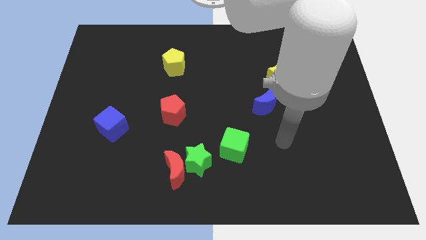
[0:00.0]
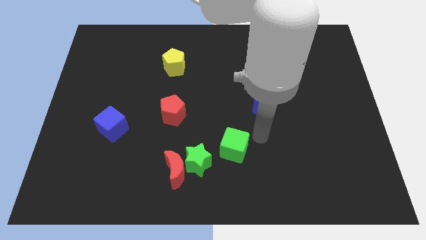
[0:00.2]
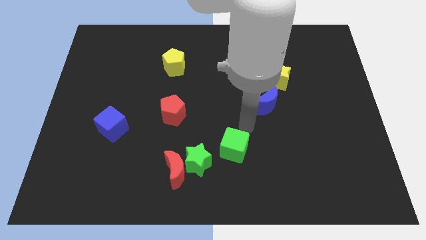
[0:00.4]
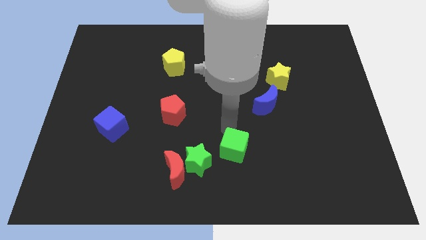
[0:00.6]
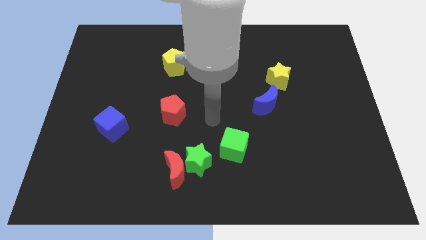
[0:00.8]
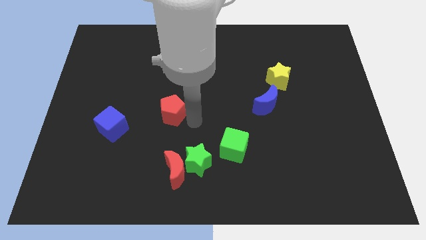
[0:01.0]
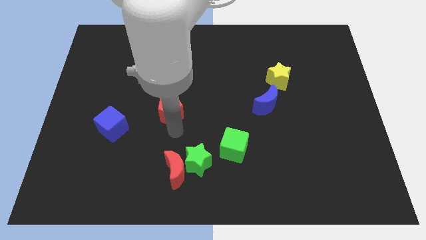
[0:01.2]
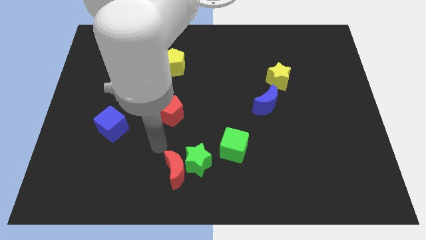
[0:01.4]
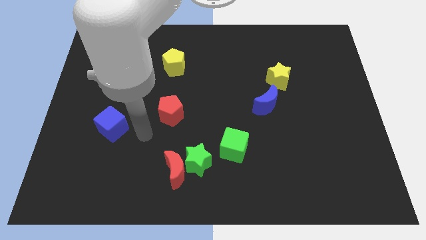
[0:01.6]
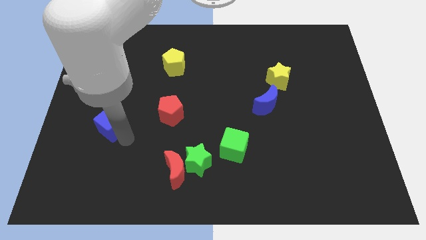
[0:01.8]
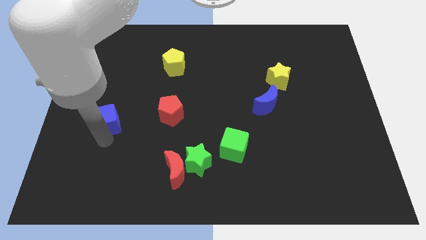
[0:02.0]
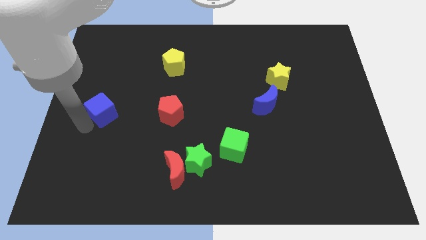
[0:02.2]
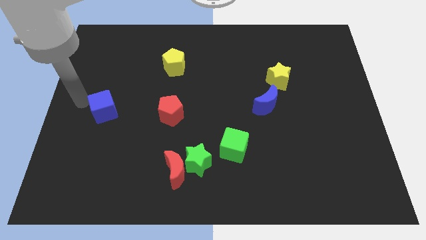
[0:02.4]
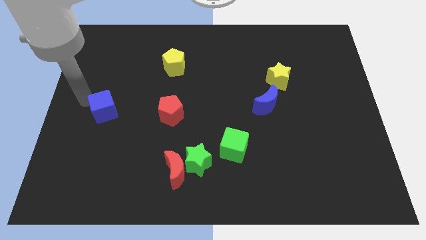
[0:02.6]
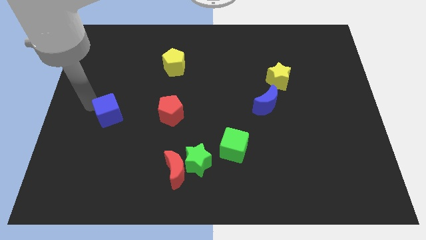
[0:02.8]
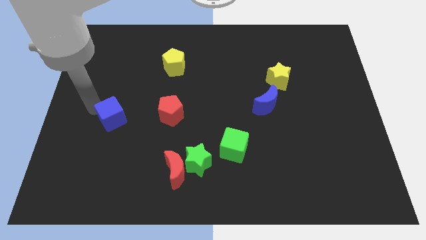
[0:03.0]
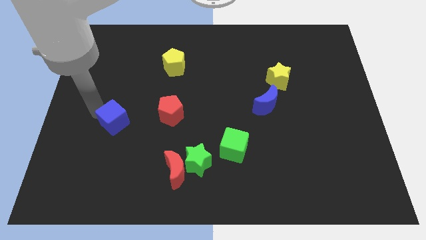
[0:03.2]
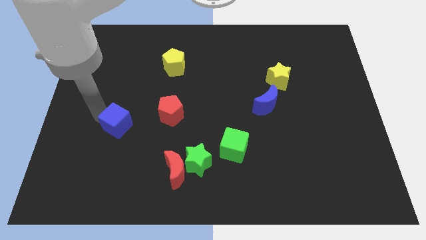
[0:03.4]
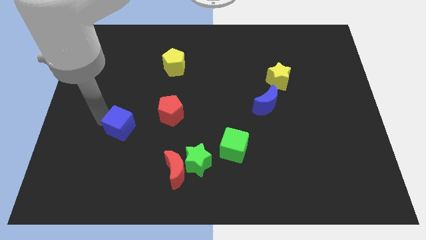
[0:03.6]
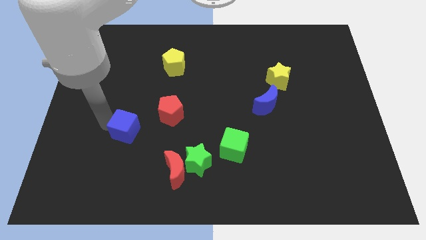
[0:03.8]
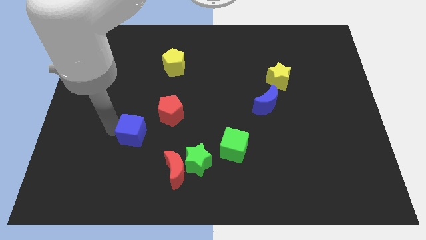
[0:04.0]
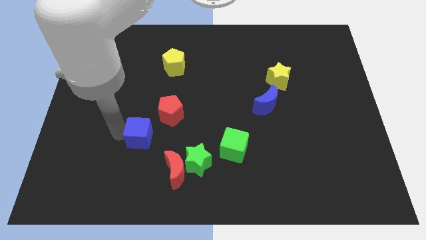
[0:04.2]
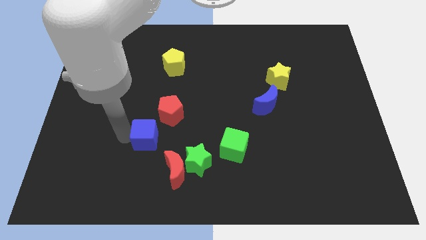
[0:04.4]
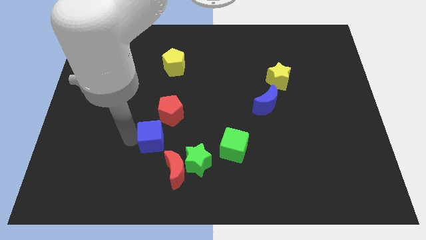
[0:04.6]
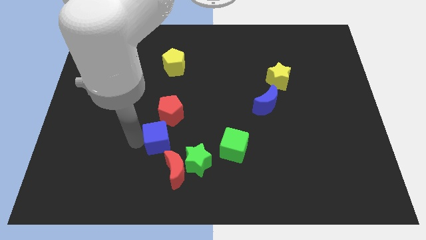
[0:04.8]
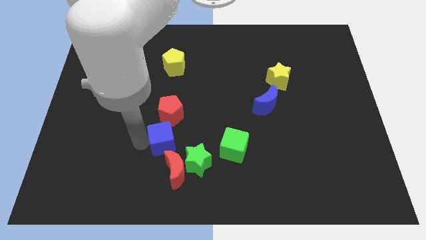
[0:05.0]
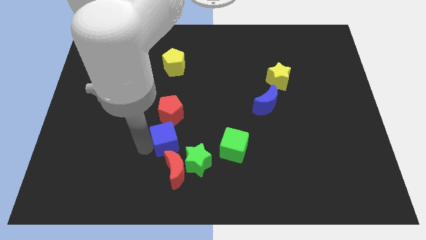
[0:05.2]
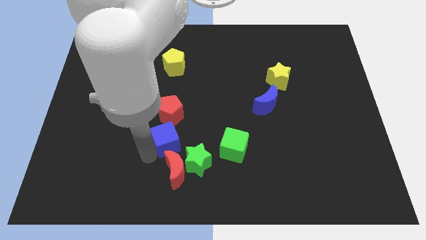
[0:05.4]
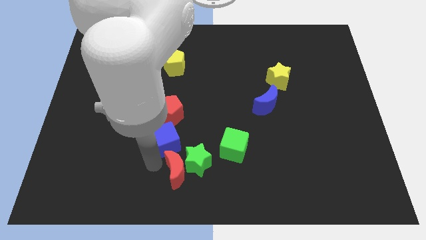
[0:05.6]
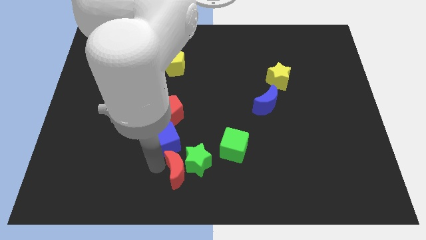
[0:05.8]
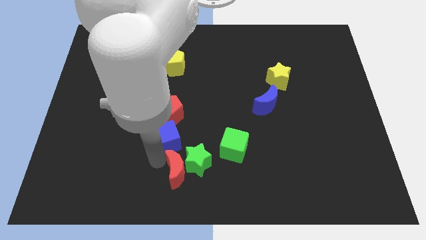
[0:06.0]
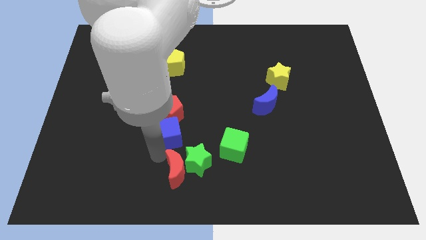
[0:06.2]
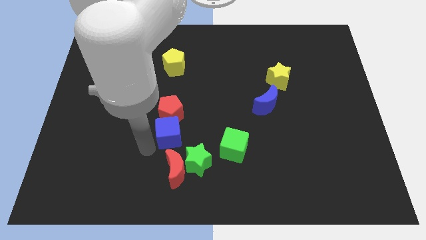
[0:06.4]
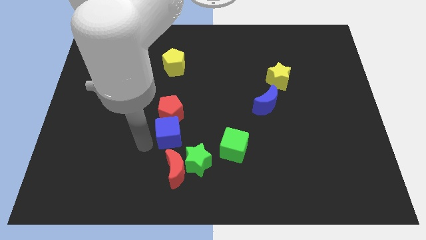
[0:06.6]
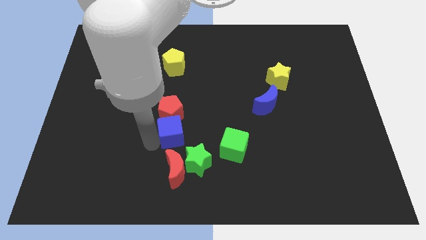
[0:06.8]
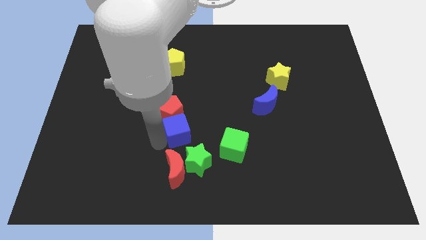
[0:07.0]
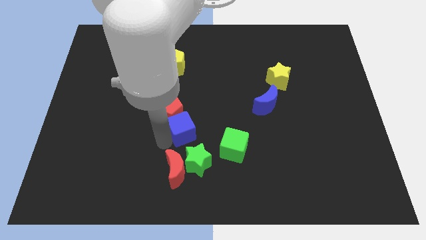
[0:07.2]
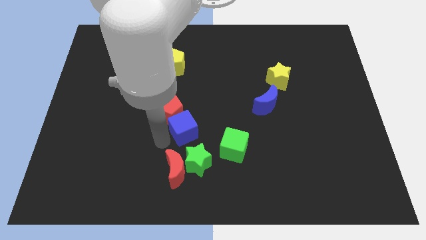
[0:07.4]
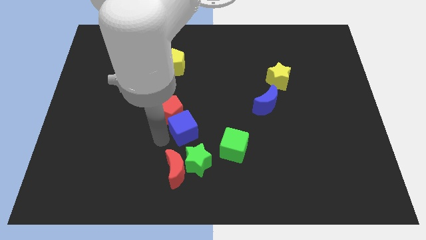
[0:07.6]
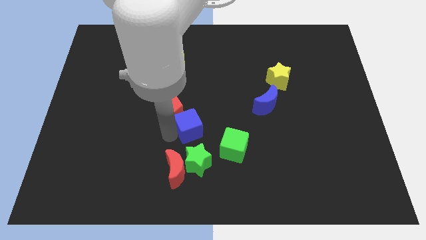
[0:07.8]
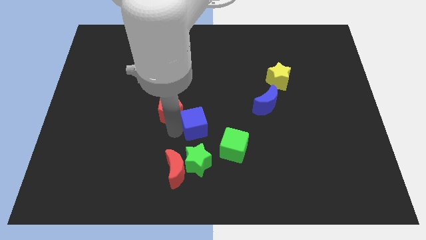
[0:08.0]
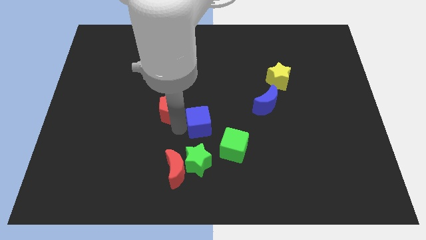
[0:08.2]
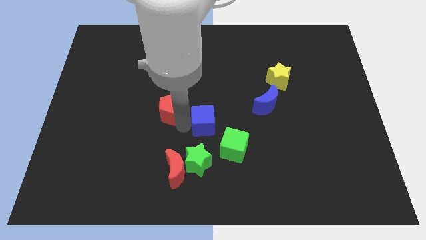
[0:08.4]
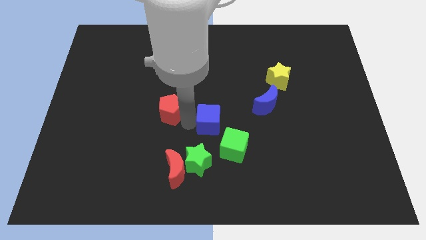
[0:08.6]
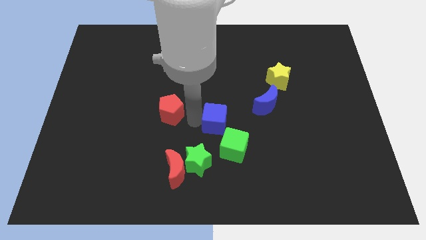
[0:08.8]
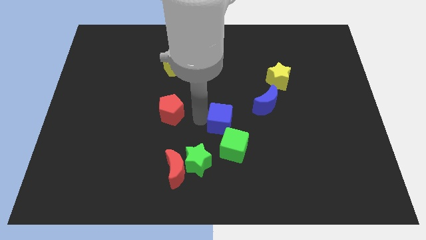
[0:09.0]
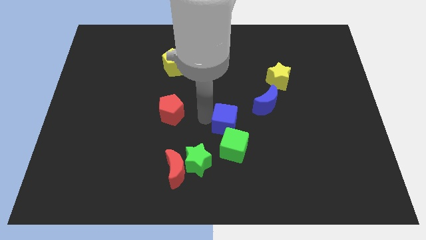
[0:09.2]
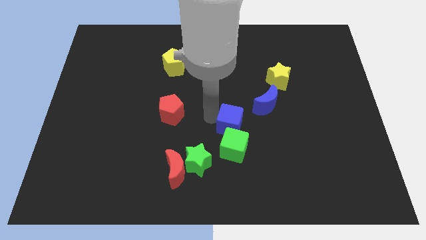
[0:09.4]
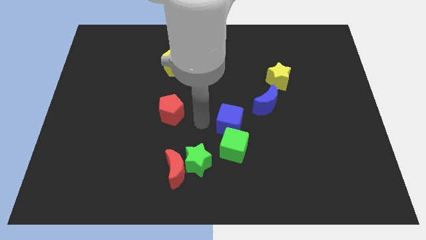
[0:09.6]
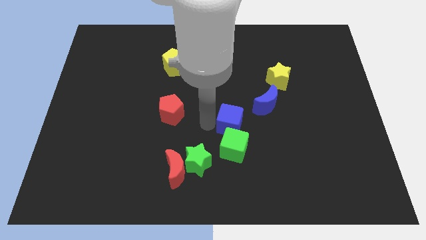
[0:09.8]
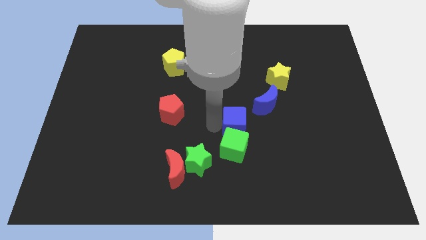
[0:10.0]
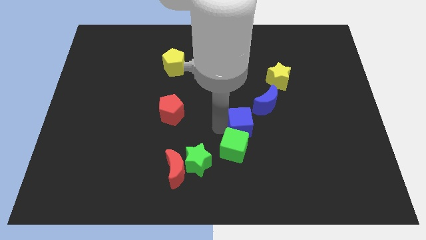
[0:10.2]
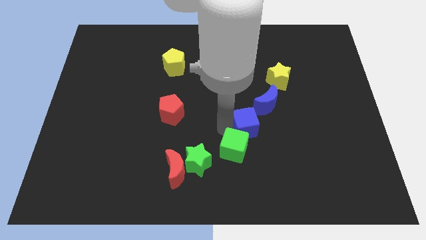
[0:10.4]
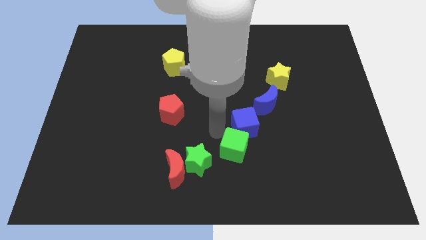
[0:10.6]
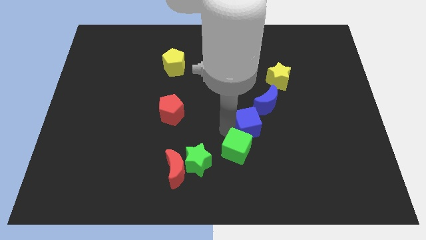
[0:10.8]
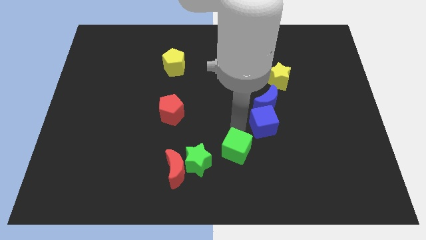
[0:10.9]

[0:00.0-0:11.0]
slide the blue cube to the bottom right of the blue moon

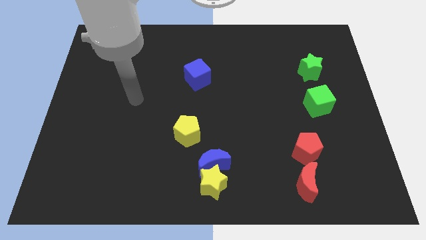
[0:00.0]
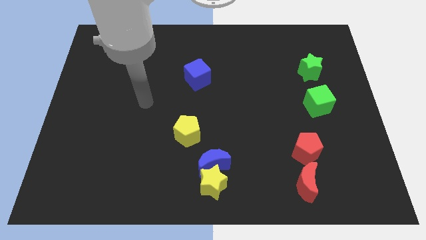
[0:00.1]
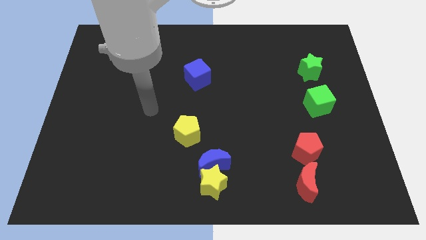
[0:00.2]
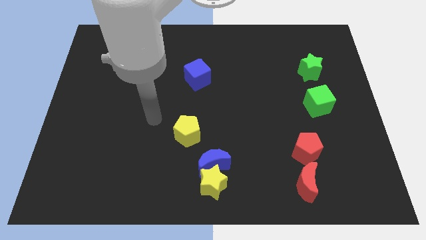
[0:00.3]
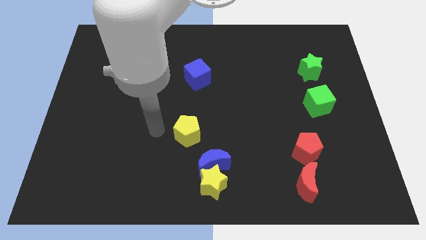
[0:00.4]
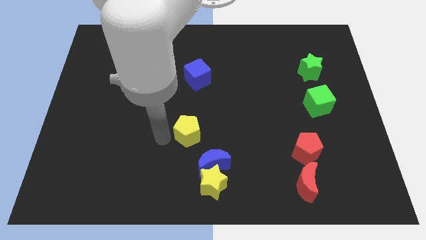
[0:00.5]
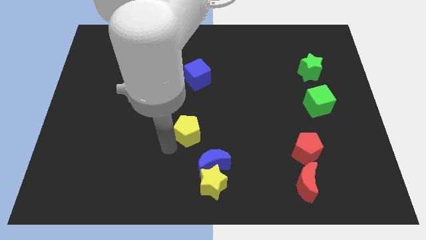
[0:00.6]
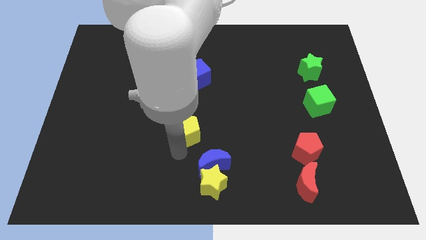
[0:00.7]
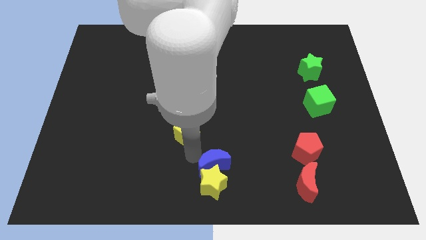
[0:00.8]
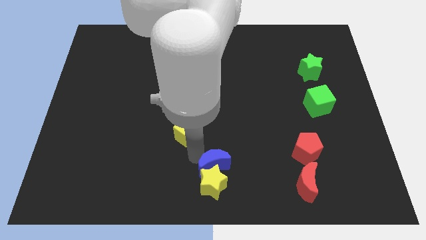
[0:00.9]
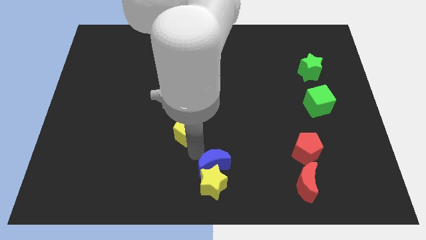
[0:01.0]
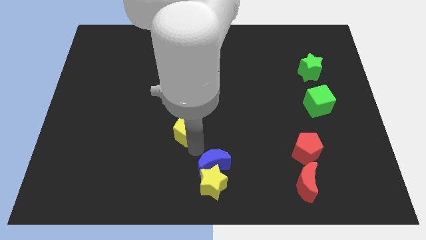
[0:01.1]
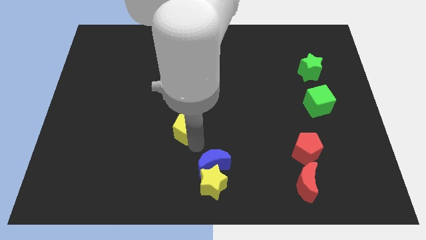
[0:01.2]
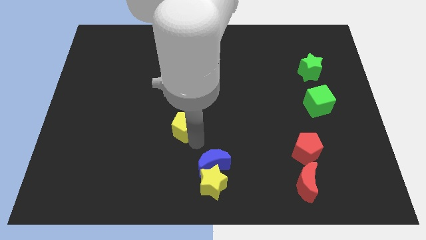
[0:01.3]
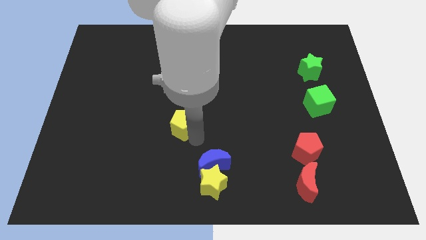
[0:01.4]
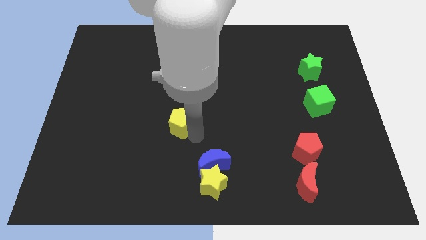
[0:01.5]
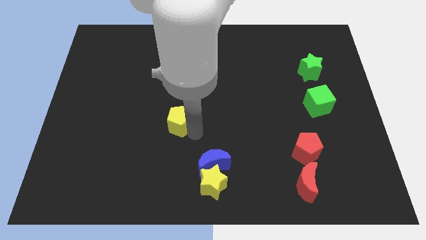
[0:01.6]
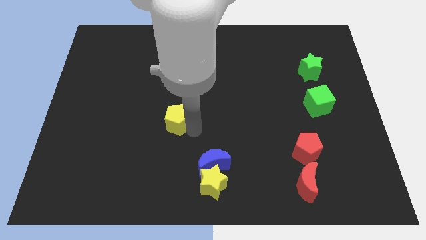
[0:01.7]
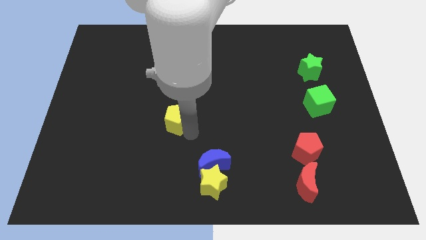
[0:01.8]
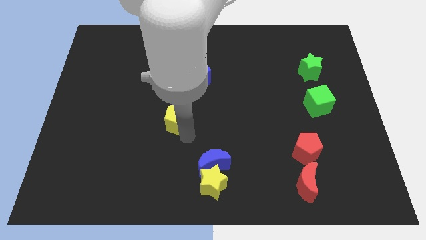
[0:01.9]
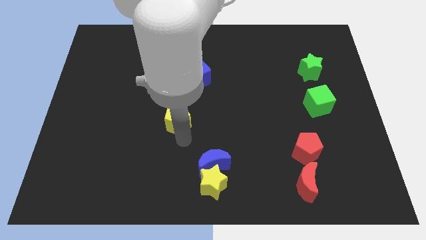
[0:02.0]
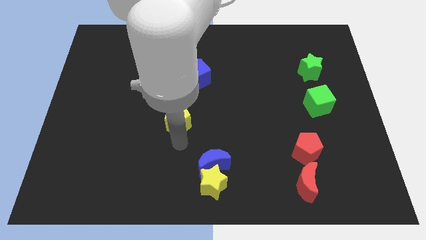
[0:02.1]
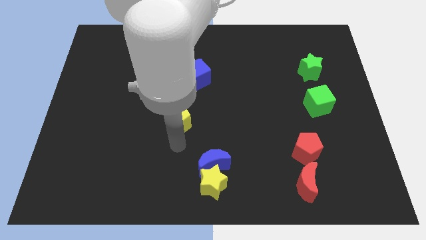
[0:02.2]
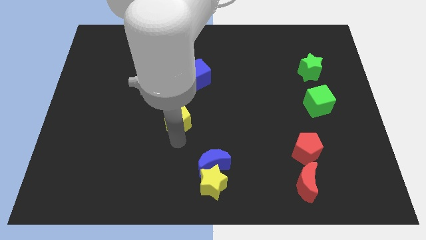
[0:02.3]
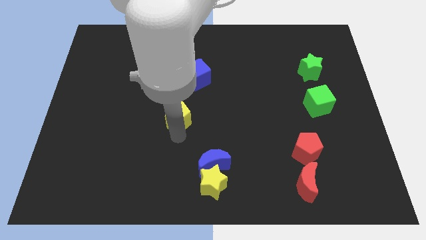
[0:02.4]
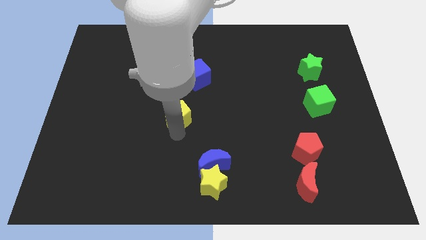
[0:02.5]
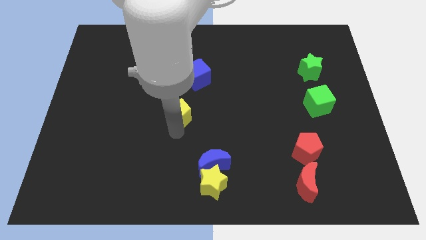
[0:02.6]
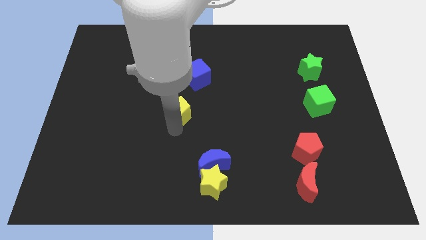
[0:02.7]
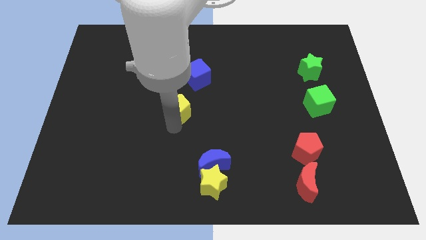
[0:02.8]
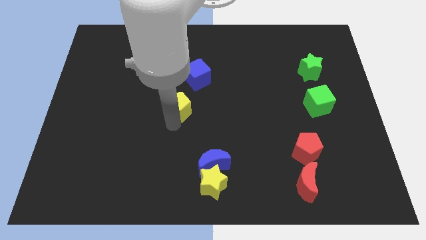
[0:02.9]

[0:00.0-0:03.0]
push the yellow pentagon to the bottom left side of the blue cube
